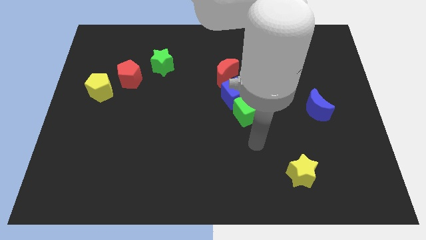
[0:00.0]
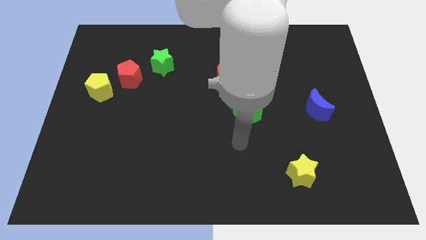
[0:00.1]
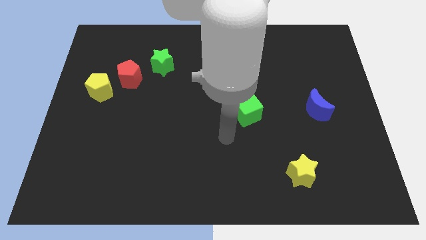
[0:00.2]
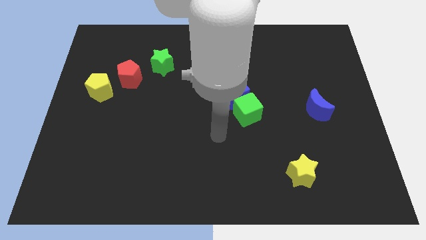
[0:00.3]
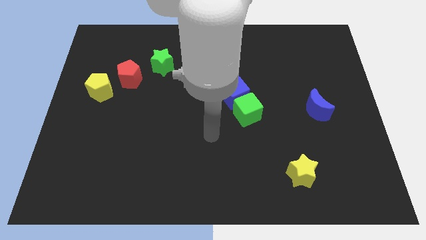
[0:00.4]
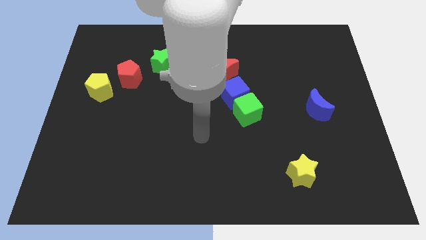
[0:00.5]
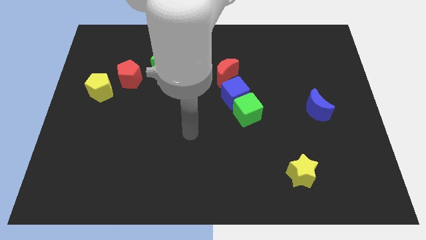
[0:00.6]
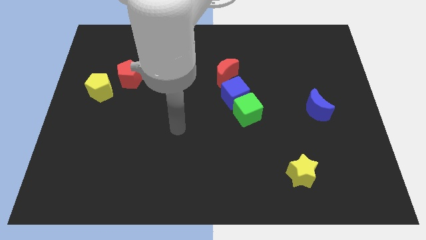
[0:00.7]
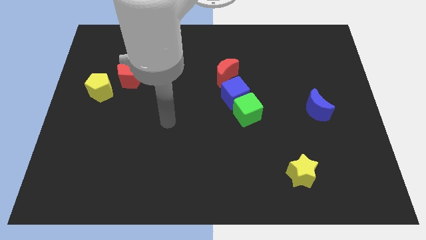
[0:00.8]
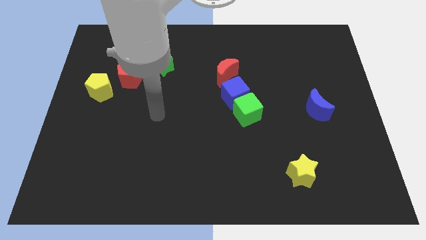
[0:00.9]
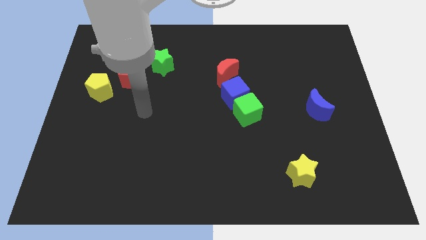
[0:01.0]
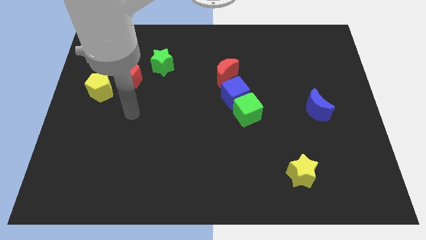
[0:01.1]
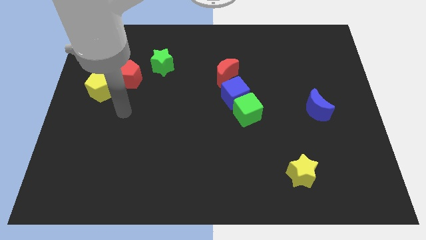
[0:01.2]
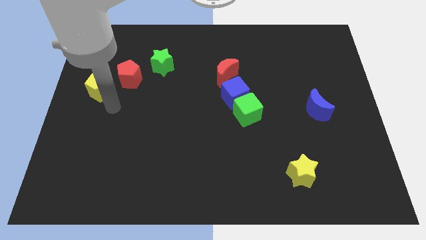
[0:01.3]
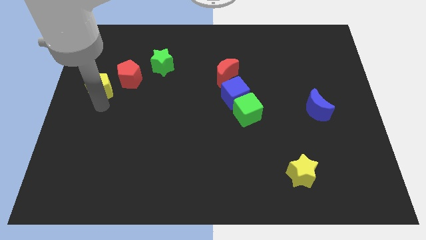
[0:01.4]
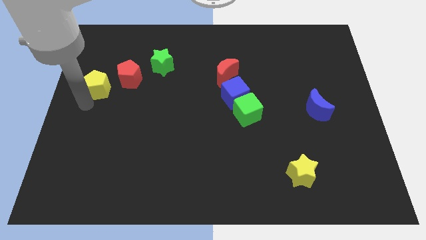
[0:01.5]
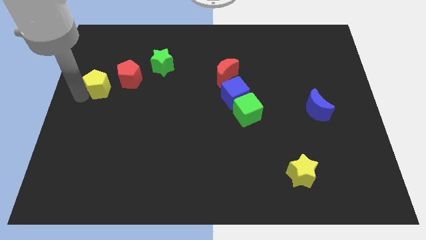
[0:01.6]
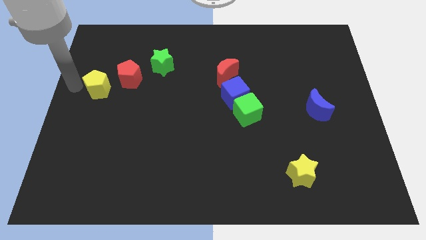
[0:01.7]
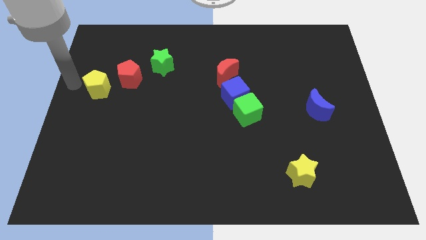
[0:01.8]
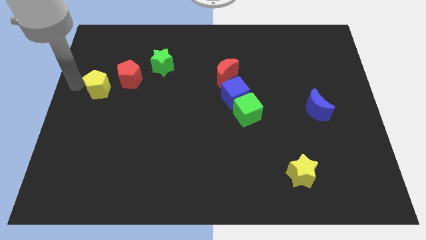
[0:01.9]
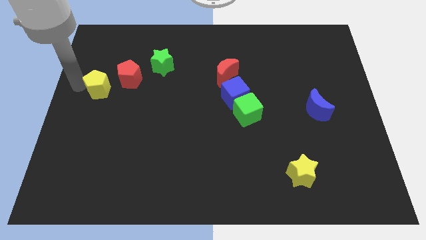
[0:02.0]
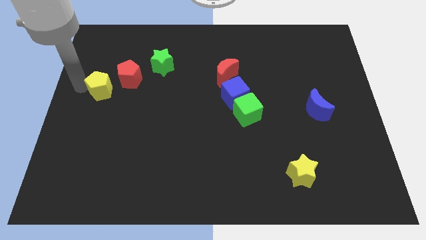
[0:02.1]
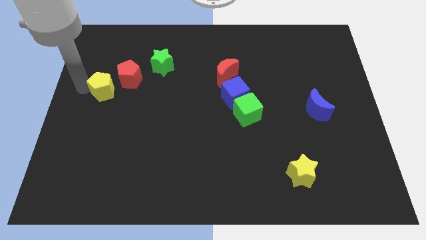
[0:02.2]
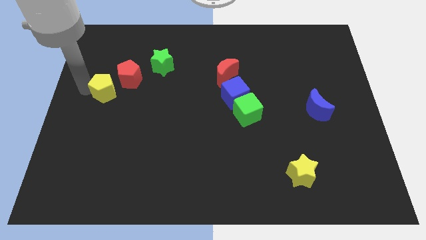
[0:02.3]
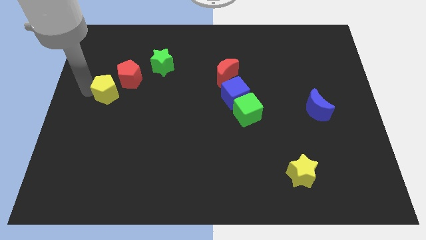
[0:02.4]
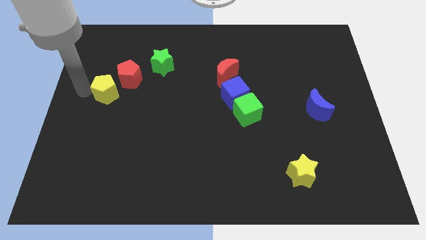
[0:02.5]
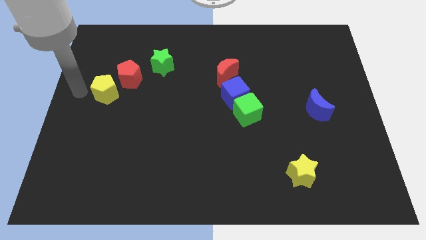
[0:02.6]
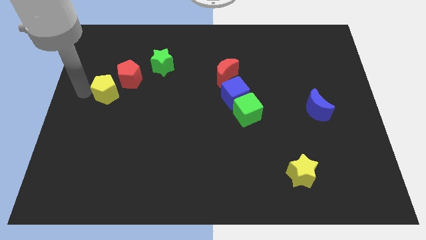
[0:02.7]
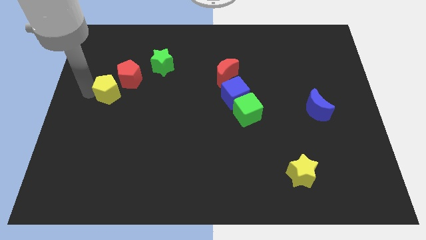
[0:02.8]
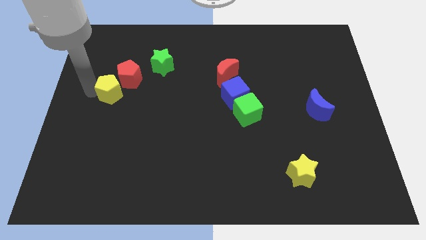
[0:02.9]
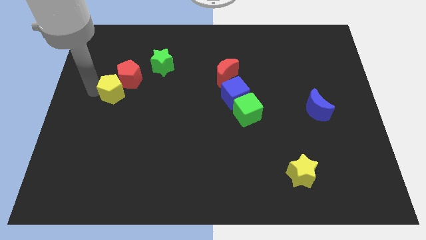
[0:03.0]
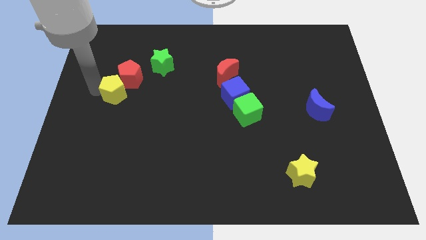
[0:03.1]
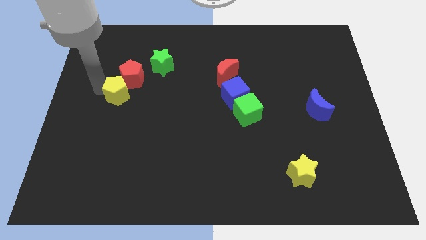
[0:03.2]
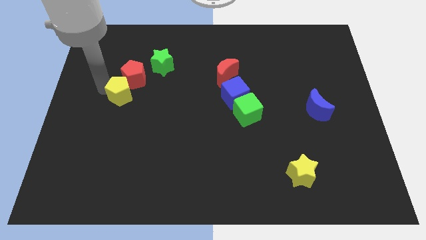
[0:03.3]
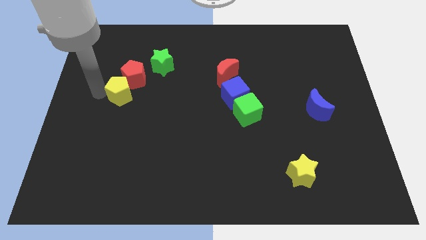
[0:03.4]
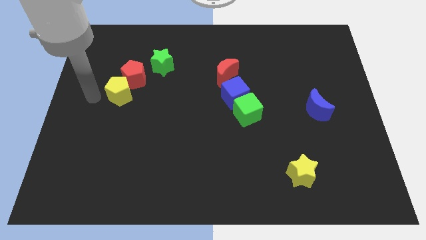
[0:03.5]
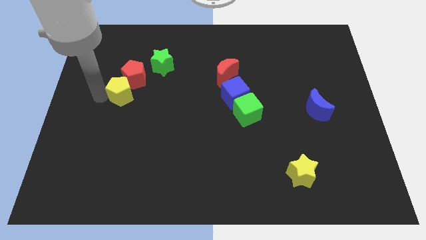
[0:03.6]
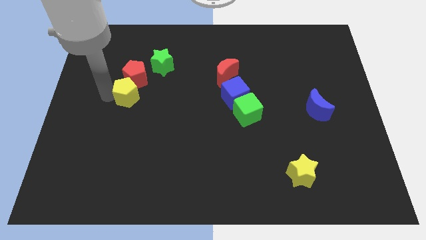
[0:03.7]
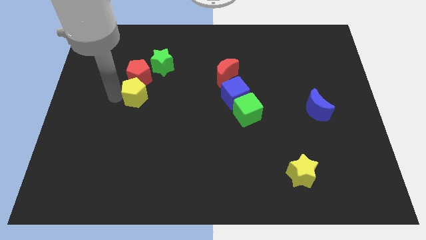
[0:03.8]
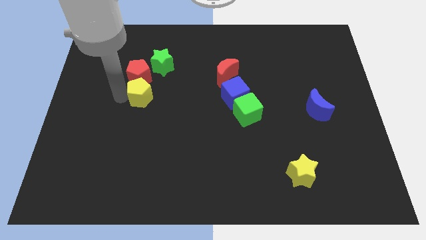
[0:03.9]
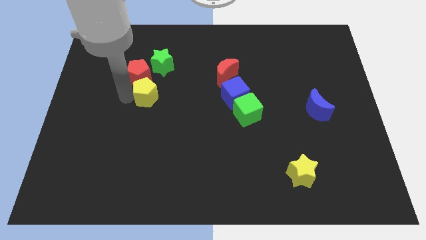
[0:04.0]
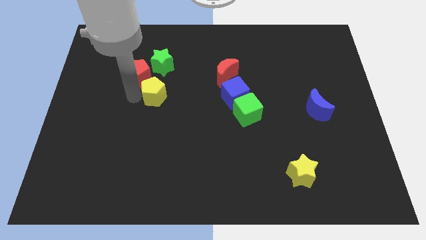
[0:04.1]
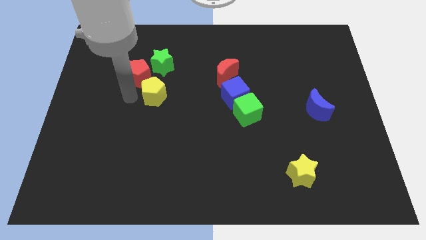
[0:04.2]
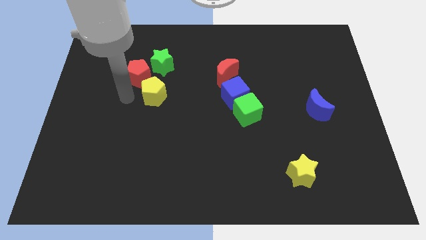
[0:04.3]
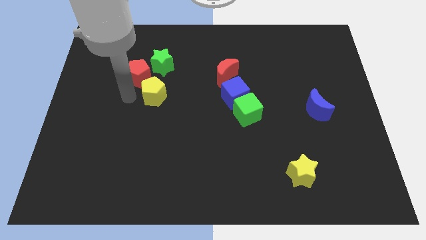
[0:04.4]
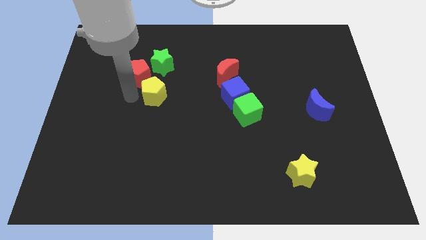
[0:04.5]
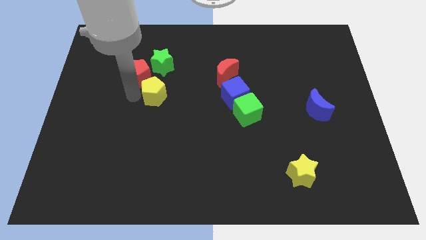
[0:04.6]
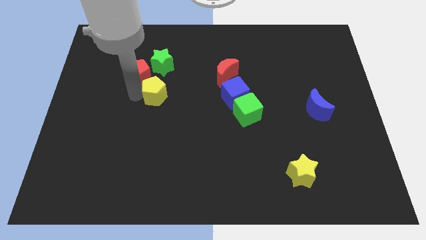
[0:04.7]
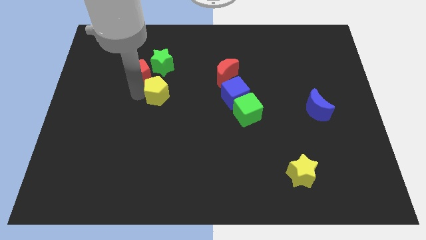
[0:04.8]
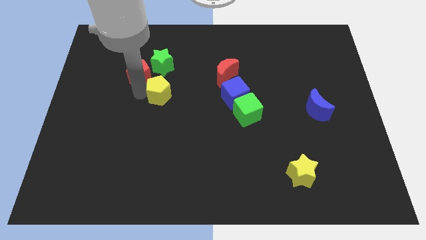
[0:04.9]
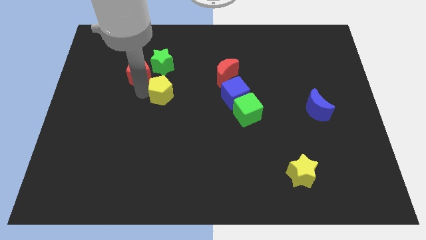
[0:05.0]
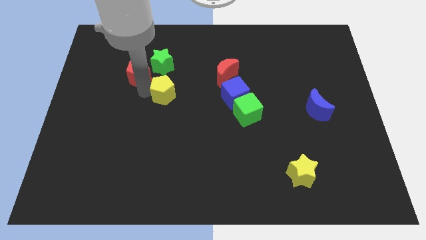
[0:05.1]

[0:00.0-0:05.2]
slide the yellow pentagon to the middle of the board

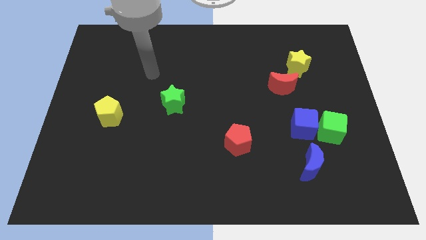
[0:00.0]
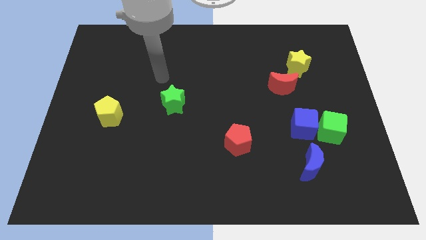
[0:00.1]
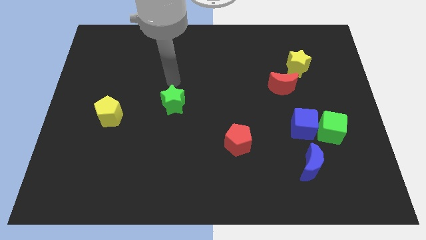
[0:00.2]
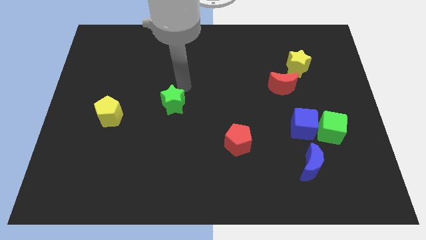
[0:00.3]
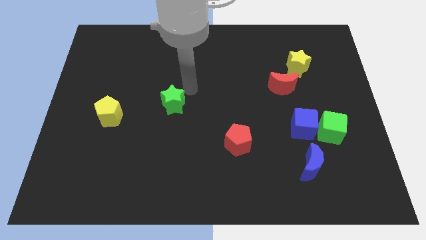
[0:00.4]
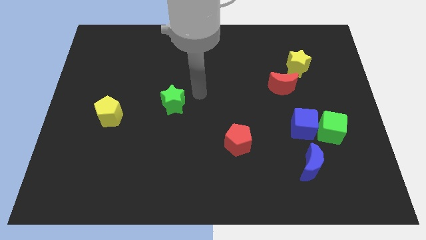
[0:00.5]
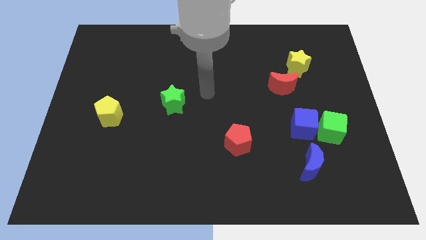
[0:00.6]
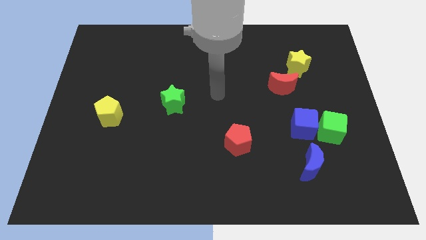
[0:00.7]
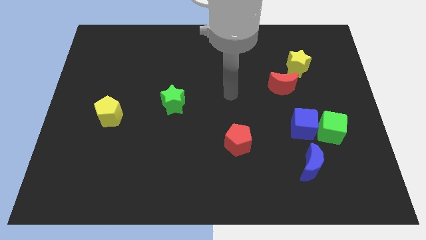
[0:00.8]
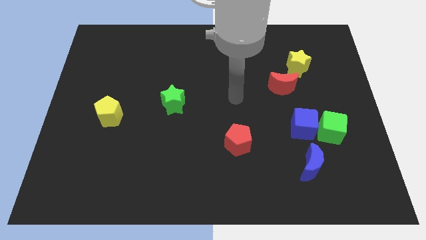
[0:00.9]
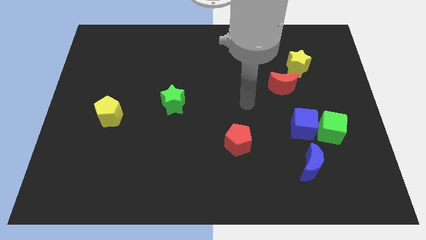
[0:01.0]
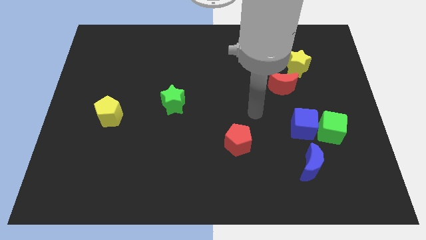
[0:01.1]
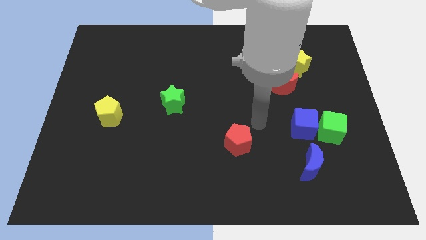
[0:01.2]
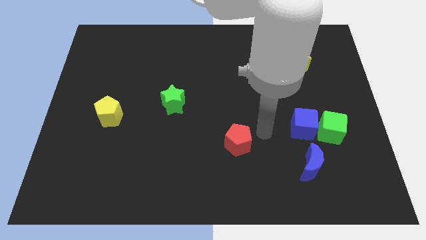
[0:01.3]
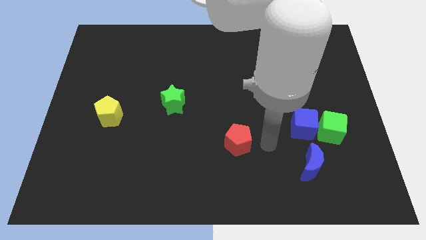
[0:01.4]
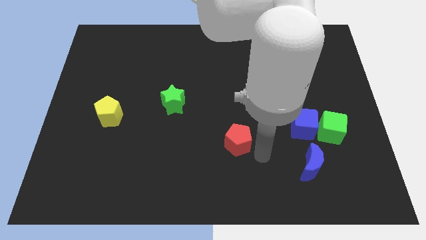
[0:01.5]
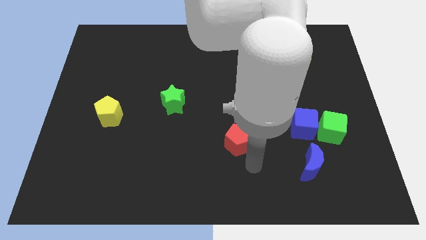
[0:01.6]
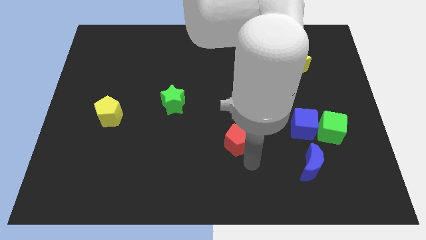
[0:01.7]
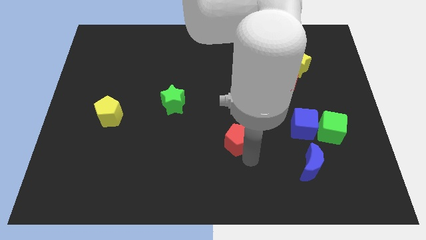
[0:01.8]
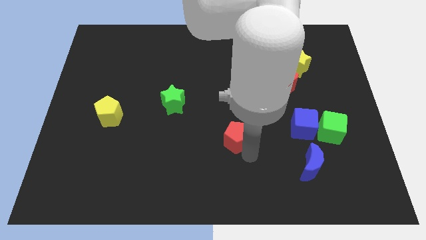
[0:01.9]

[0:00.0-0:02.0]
move the red pentagon to the center

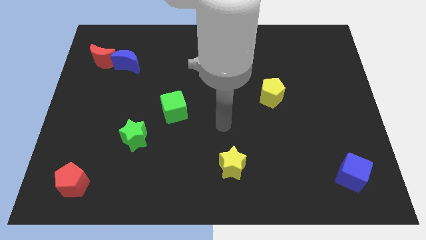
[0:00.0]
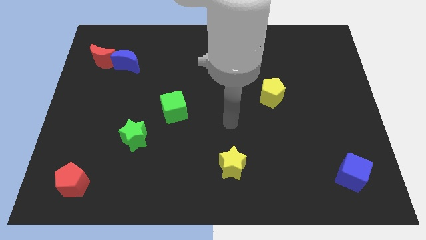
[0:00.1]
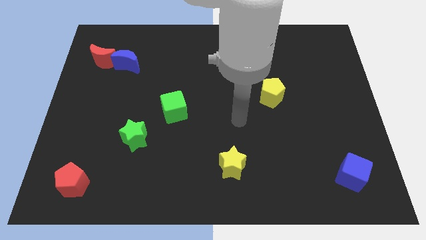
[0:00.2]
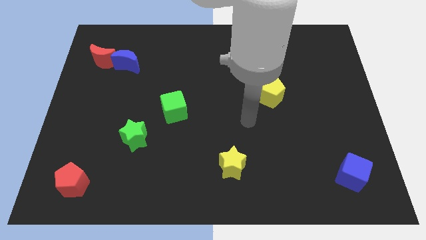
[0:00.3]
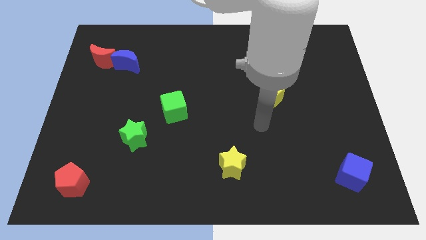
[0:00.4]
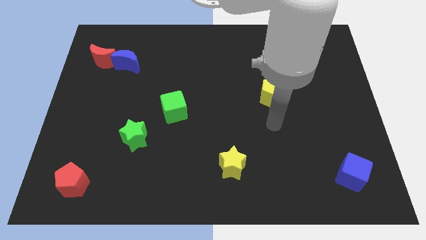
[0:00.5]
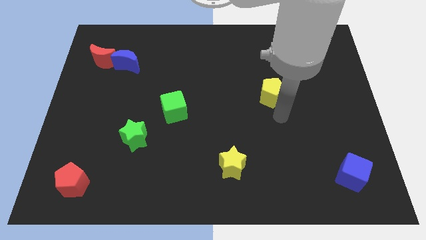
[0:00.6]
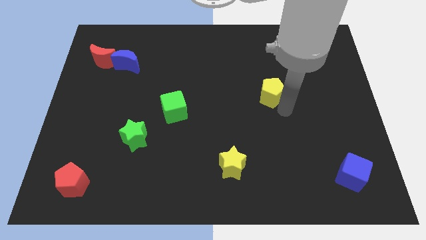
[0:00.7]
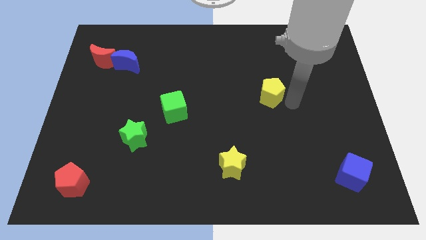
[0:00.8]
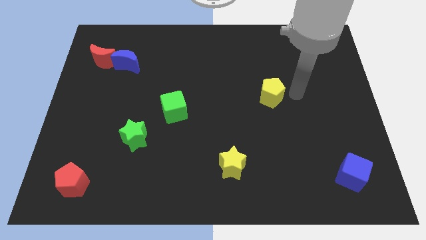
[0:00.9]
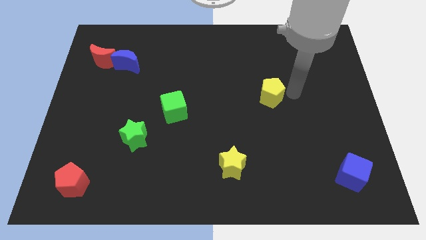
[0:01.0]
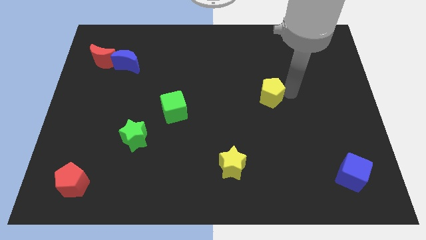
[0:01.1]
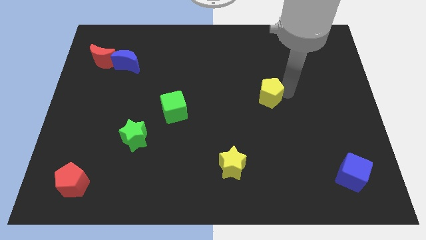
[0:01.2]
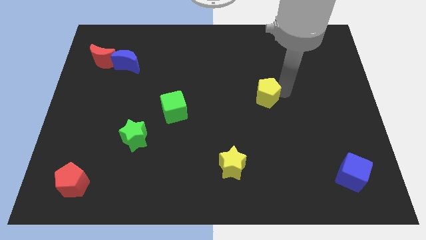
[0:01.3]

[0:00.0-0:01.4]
put the yellow pentagon to the middle of the board
